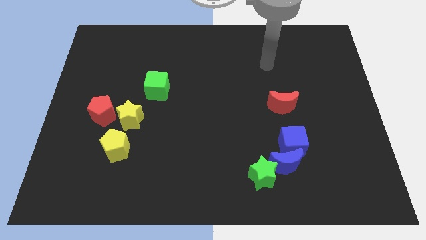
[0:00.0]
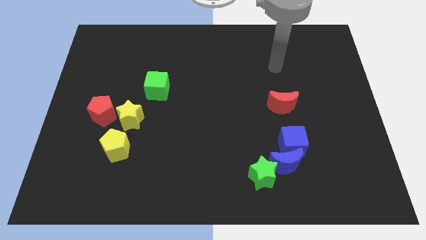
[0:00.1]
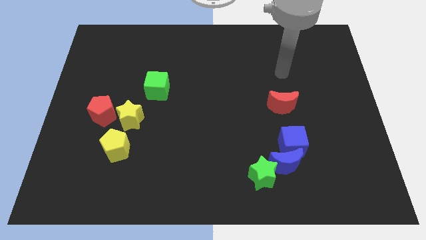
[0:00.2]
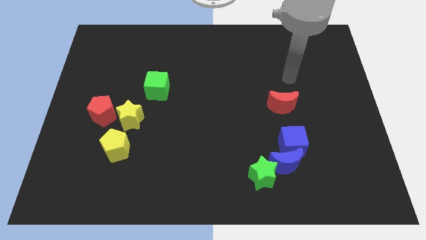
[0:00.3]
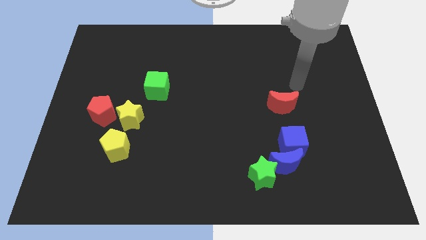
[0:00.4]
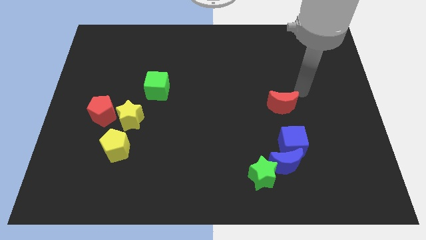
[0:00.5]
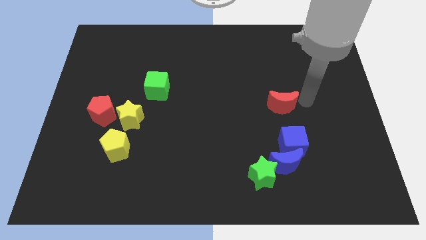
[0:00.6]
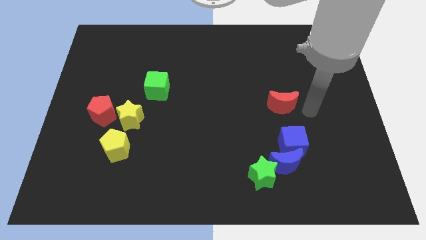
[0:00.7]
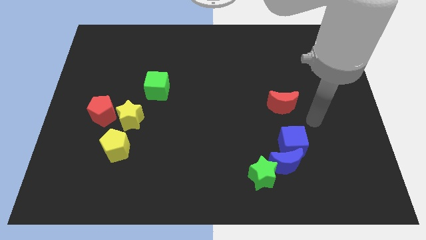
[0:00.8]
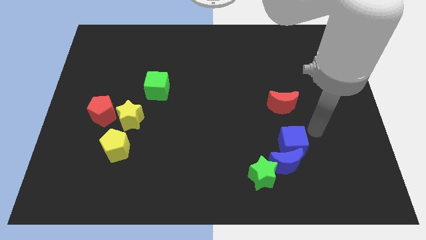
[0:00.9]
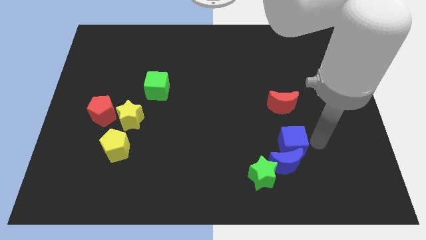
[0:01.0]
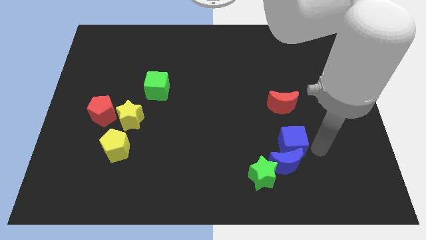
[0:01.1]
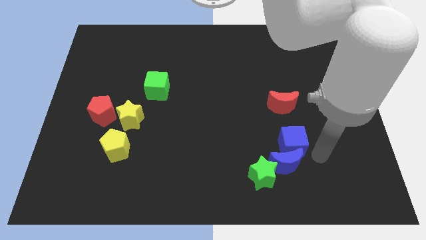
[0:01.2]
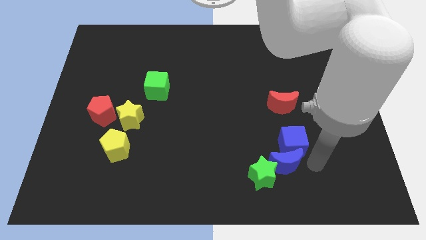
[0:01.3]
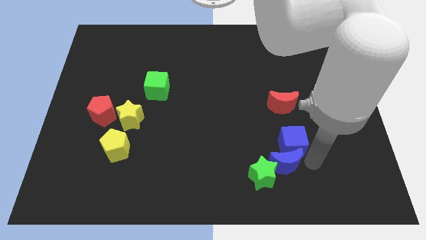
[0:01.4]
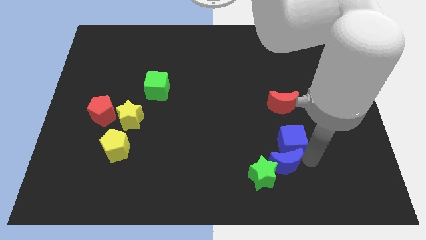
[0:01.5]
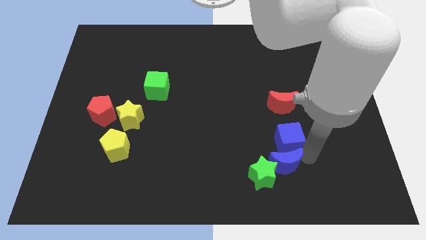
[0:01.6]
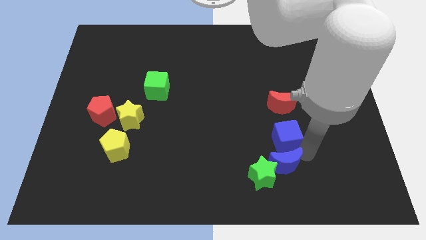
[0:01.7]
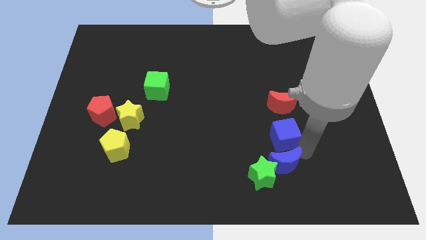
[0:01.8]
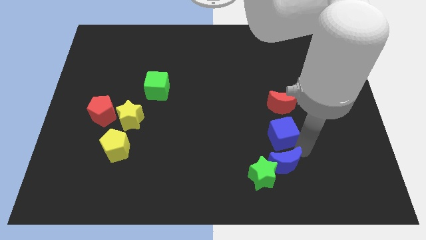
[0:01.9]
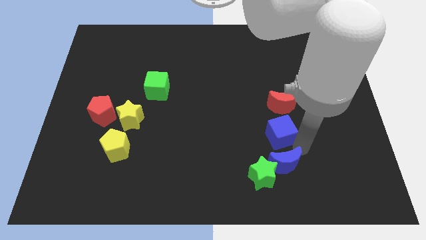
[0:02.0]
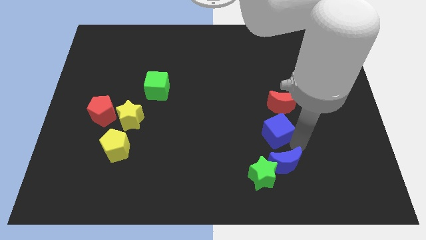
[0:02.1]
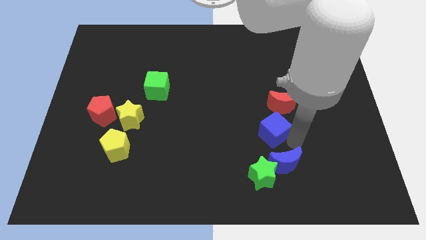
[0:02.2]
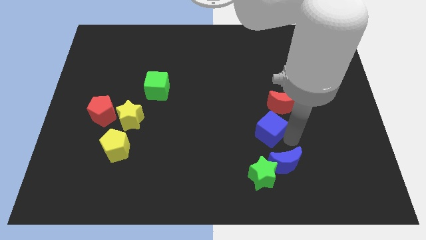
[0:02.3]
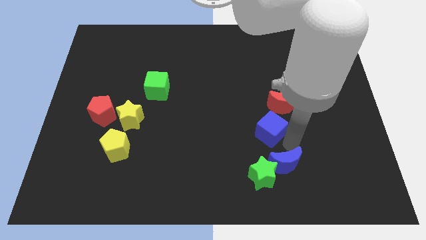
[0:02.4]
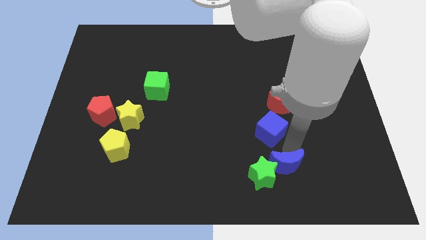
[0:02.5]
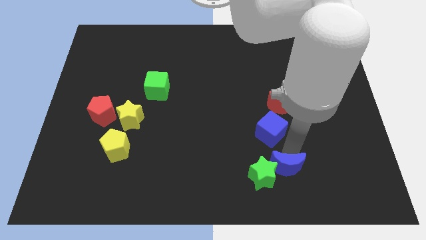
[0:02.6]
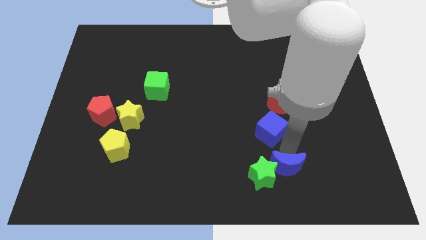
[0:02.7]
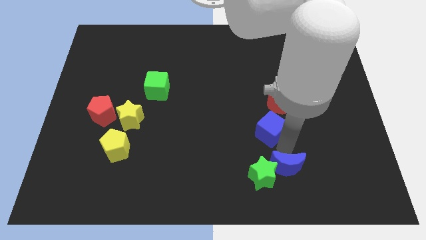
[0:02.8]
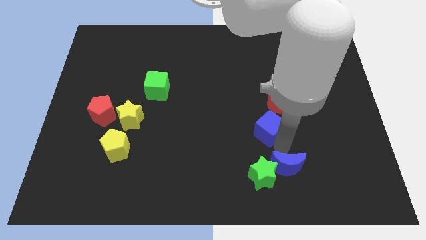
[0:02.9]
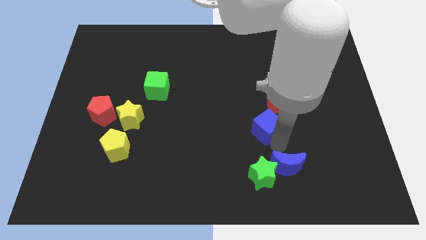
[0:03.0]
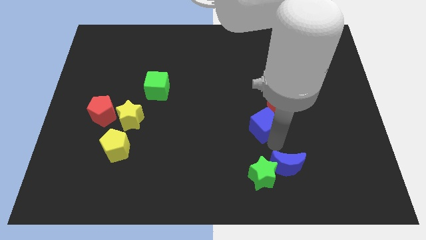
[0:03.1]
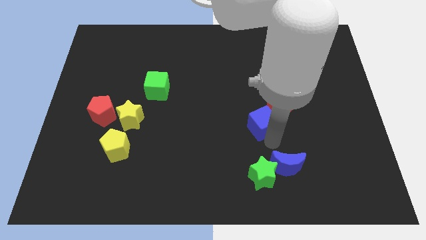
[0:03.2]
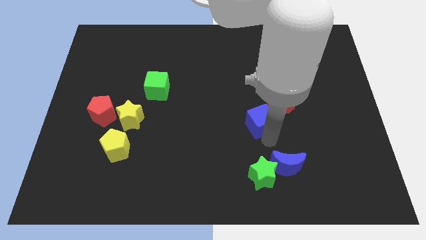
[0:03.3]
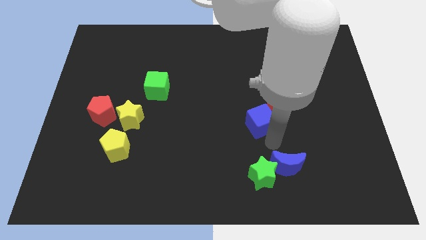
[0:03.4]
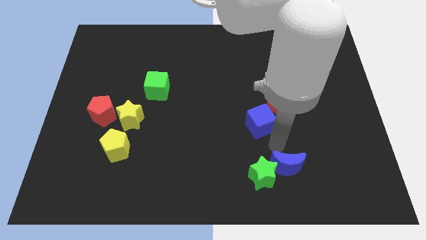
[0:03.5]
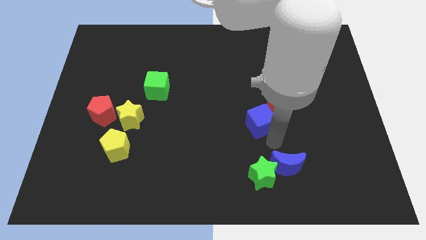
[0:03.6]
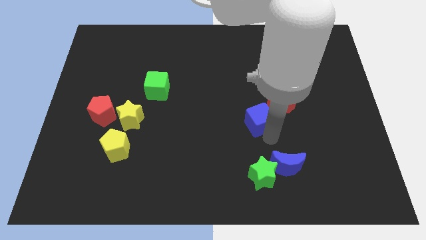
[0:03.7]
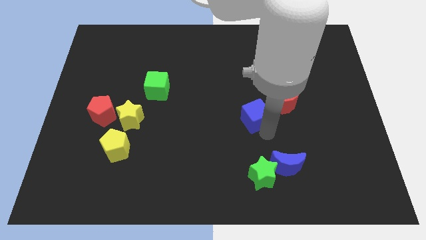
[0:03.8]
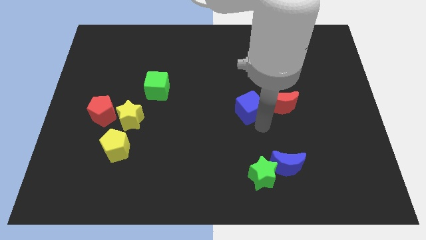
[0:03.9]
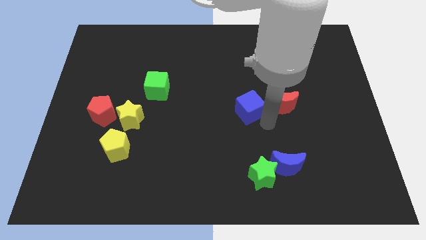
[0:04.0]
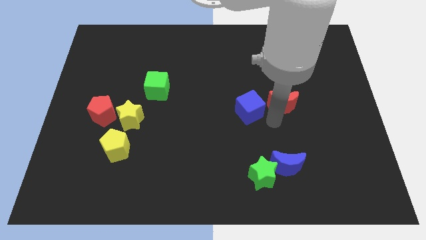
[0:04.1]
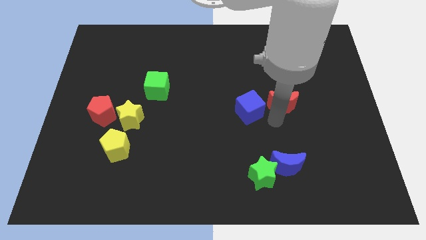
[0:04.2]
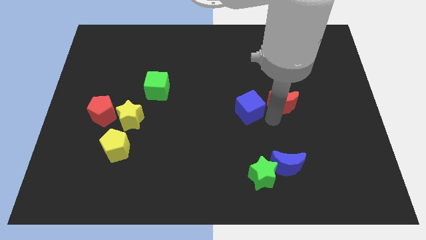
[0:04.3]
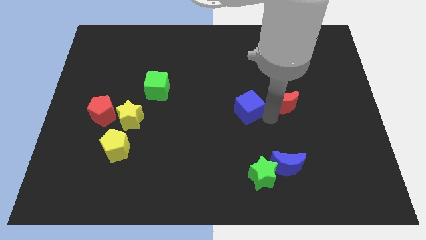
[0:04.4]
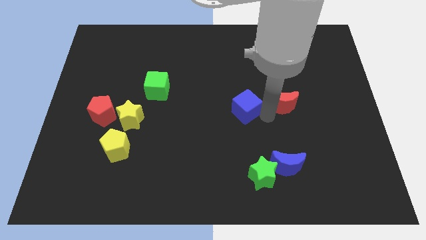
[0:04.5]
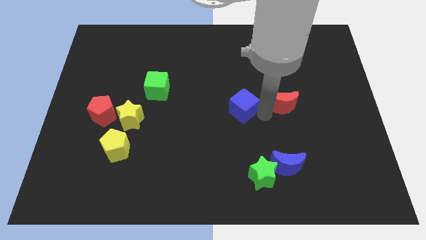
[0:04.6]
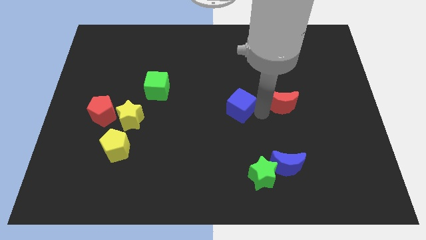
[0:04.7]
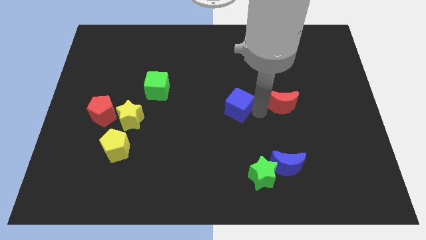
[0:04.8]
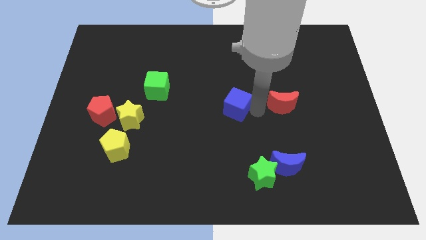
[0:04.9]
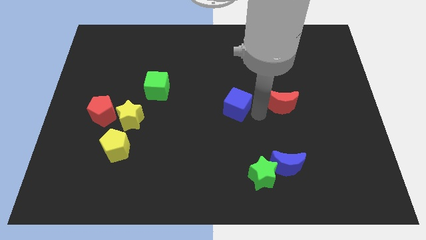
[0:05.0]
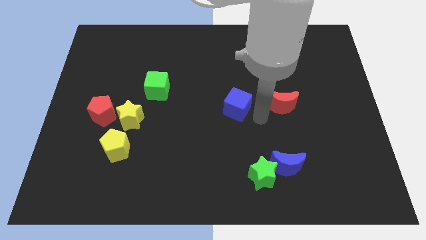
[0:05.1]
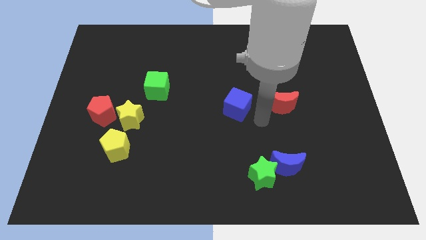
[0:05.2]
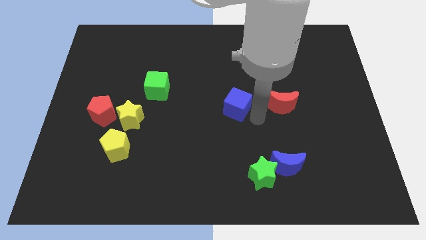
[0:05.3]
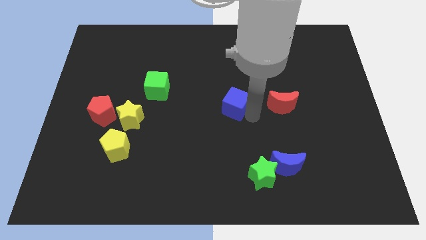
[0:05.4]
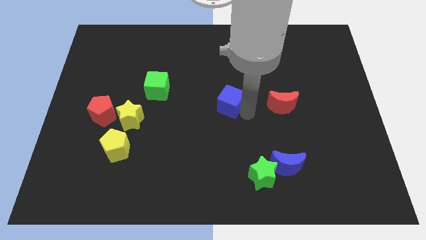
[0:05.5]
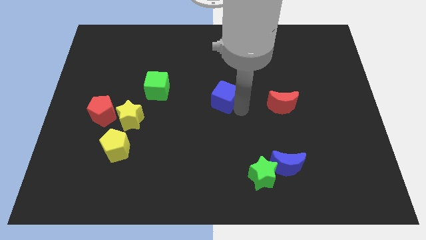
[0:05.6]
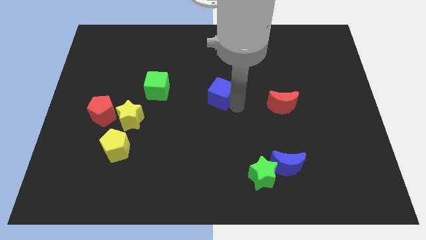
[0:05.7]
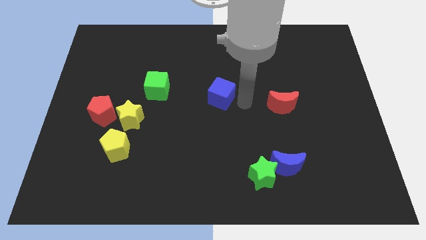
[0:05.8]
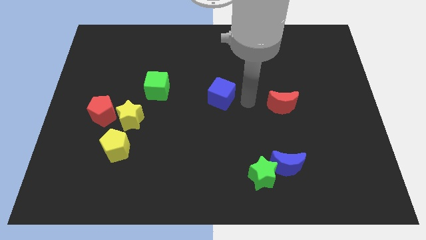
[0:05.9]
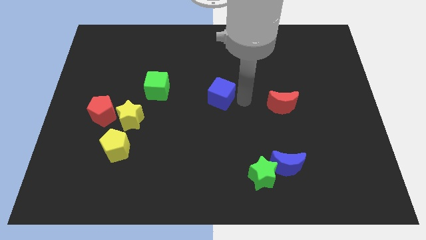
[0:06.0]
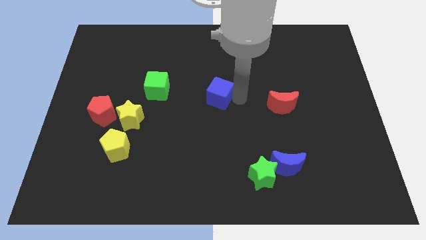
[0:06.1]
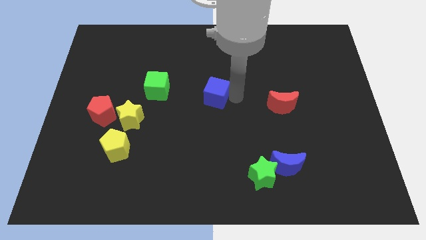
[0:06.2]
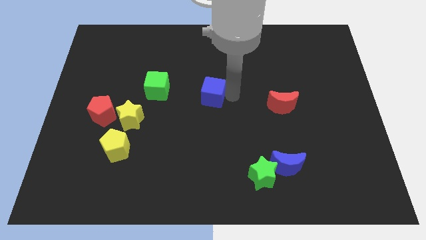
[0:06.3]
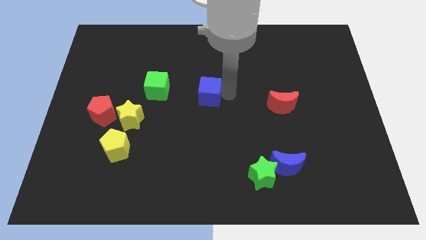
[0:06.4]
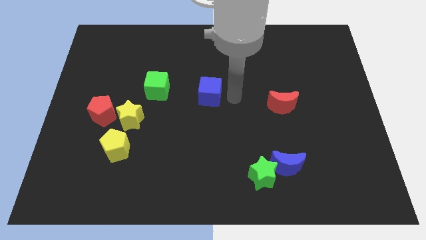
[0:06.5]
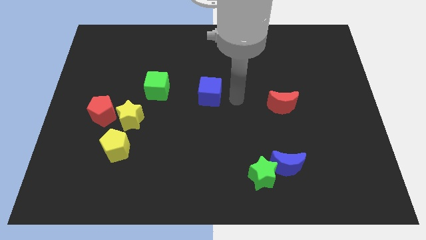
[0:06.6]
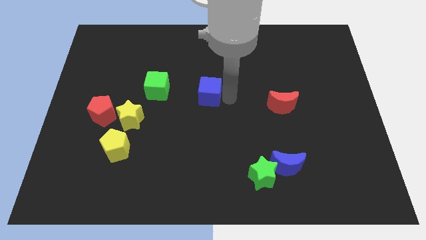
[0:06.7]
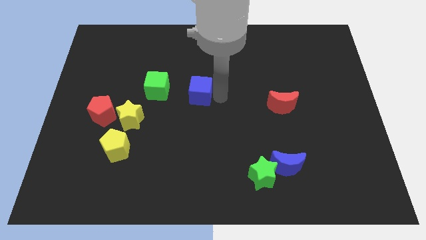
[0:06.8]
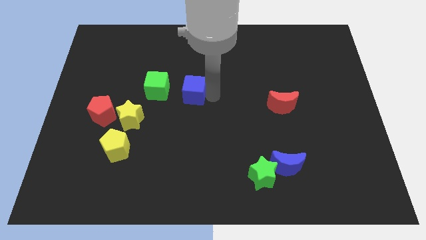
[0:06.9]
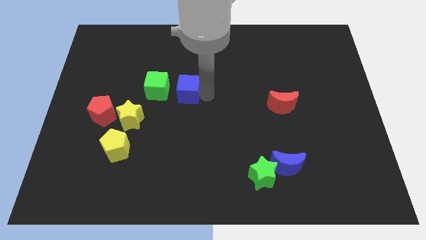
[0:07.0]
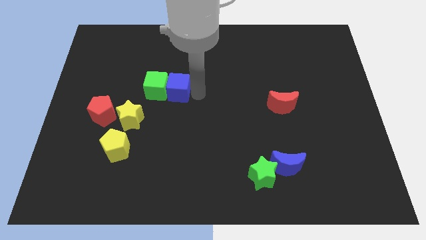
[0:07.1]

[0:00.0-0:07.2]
slide the blue cube towards the green cube
